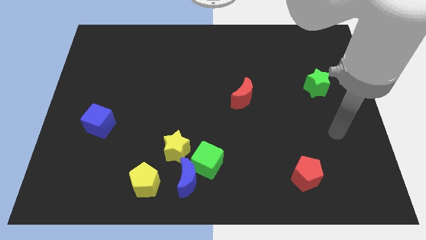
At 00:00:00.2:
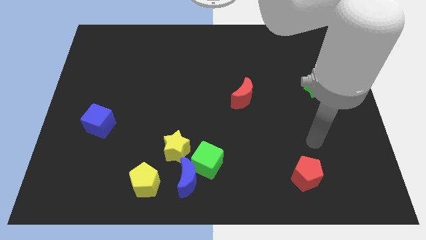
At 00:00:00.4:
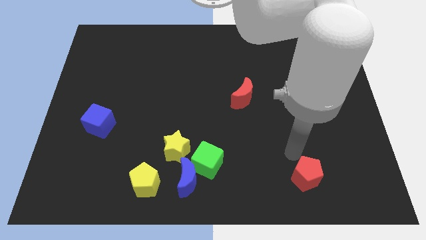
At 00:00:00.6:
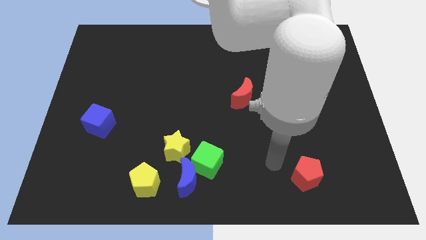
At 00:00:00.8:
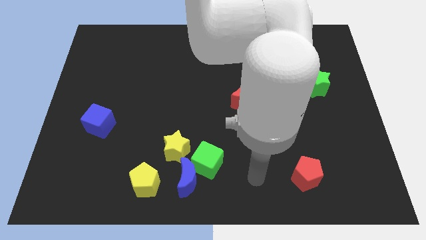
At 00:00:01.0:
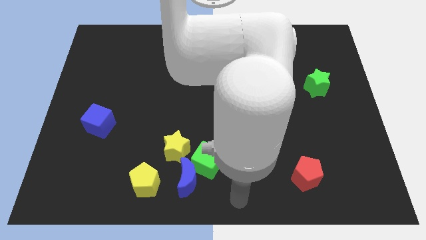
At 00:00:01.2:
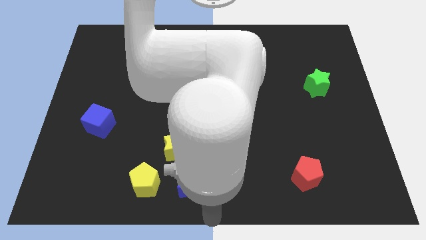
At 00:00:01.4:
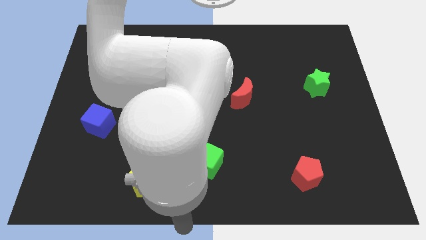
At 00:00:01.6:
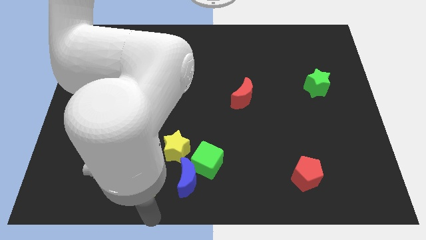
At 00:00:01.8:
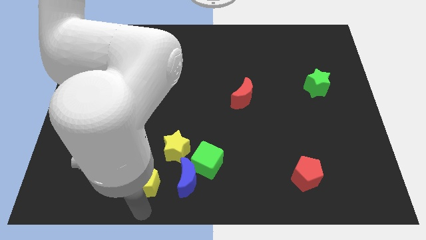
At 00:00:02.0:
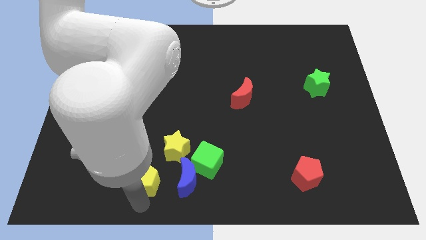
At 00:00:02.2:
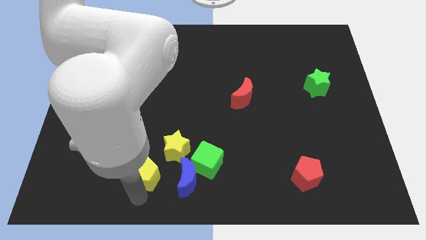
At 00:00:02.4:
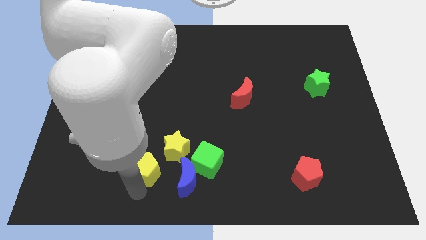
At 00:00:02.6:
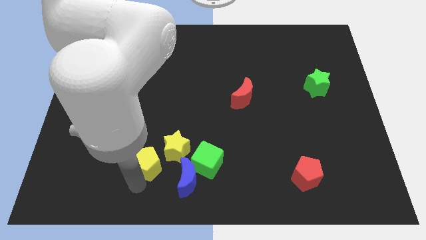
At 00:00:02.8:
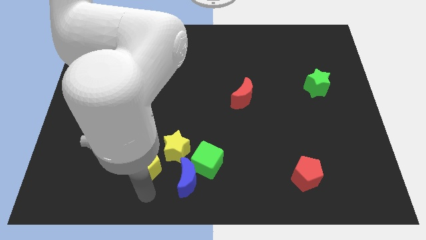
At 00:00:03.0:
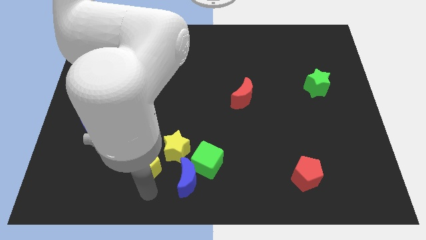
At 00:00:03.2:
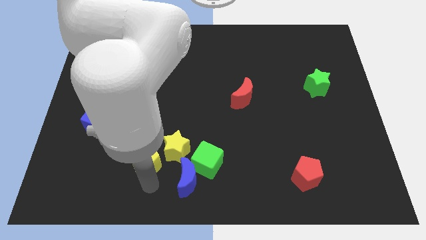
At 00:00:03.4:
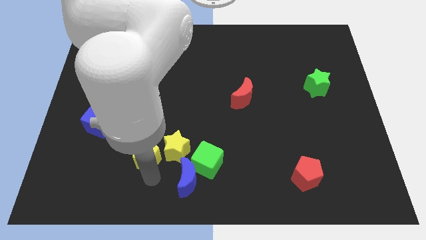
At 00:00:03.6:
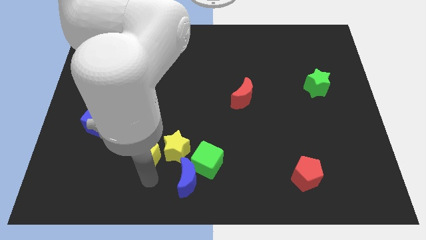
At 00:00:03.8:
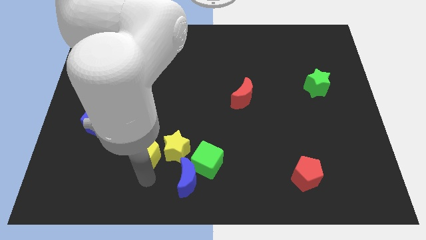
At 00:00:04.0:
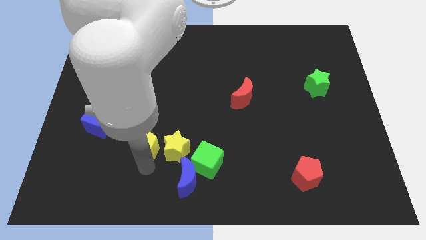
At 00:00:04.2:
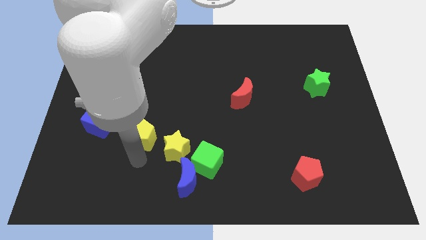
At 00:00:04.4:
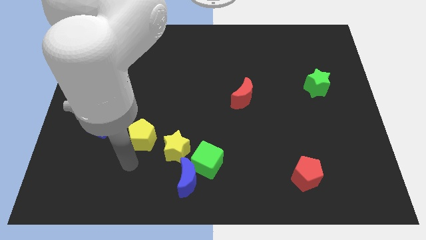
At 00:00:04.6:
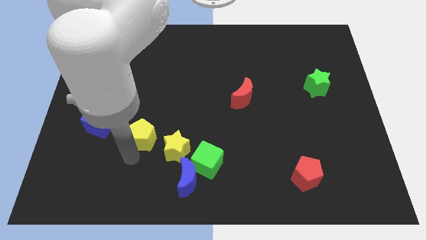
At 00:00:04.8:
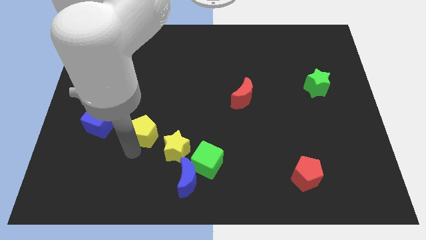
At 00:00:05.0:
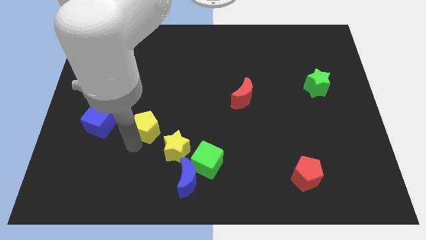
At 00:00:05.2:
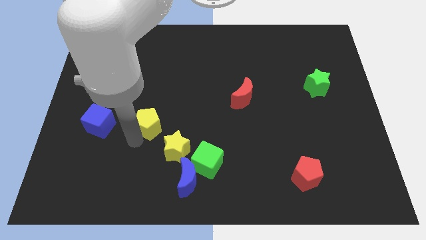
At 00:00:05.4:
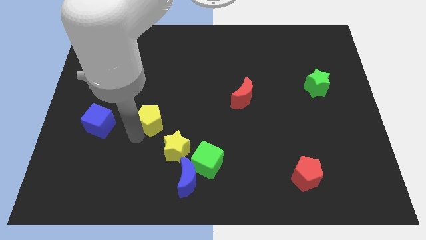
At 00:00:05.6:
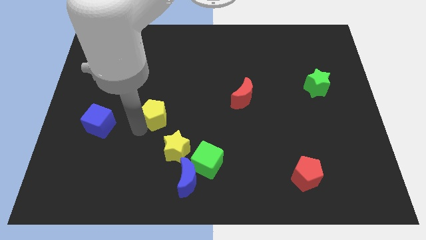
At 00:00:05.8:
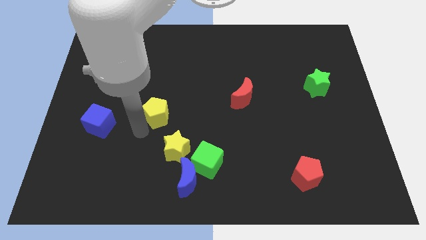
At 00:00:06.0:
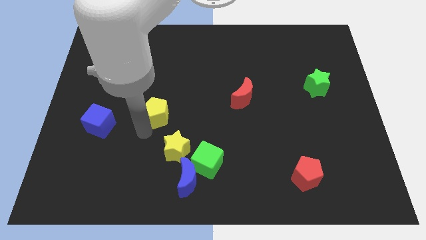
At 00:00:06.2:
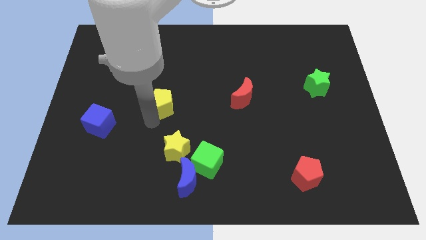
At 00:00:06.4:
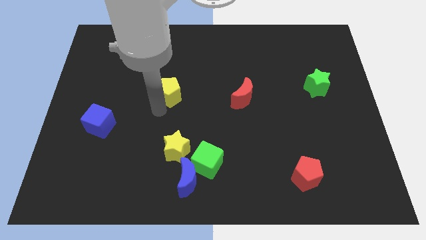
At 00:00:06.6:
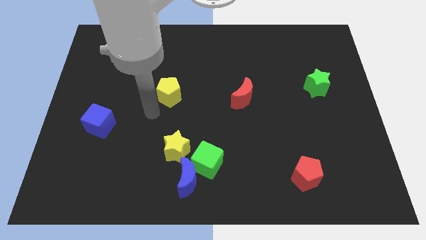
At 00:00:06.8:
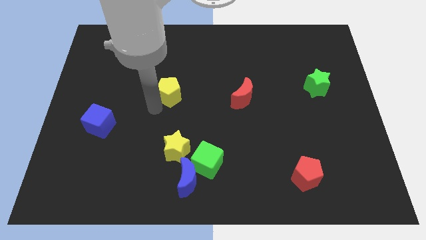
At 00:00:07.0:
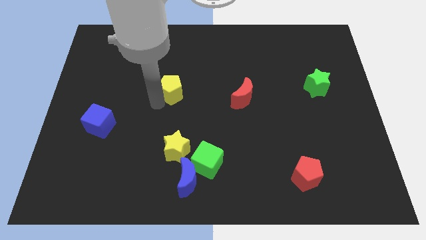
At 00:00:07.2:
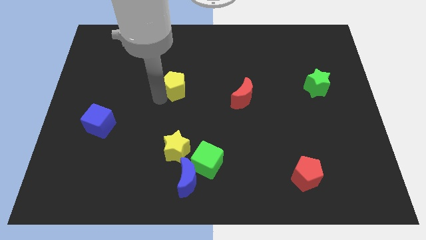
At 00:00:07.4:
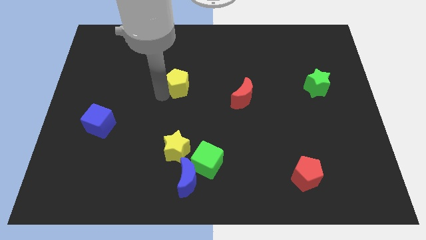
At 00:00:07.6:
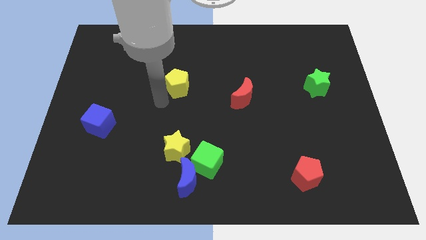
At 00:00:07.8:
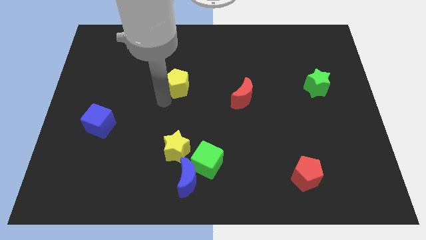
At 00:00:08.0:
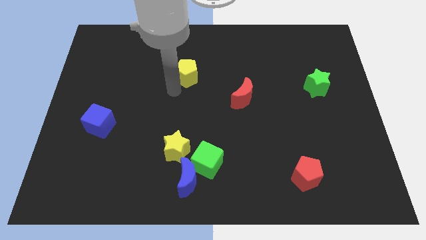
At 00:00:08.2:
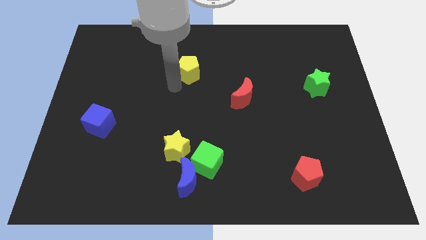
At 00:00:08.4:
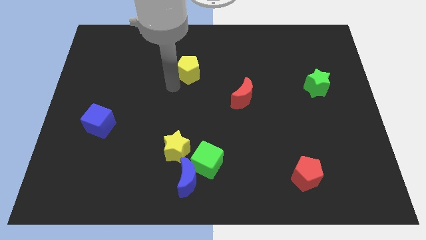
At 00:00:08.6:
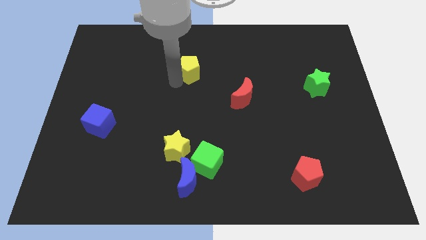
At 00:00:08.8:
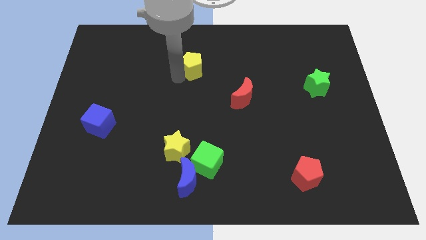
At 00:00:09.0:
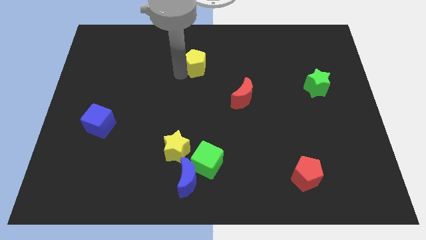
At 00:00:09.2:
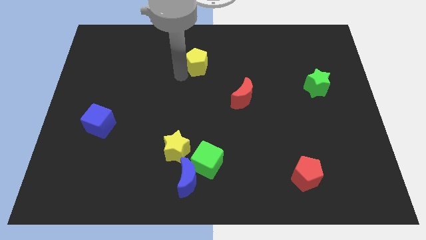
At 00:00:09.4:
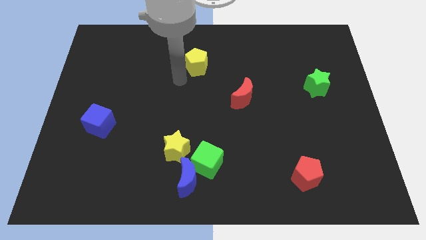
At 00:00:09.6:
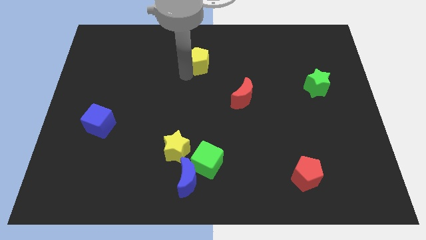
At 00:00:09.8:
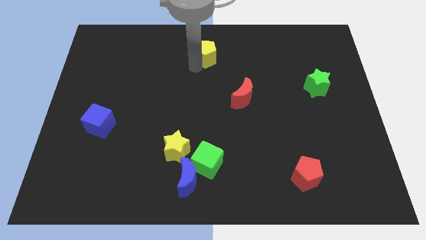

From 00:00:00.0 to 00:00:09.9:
move the yellow pentagon to the top side
